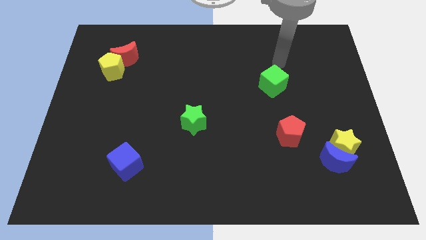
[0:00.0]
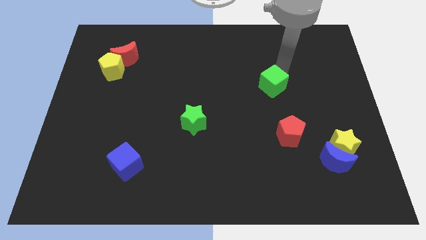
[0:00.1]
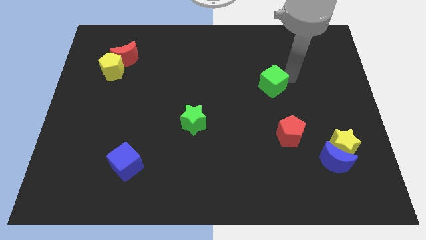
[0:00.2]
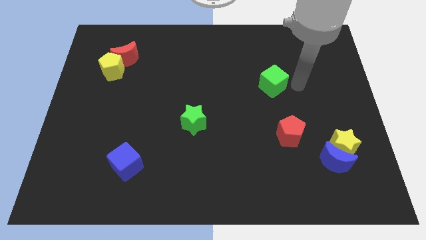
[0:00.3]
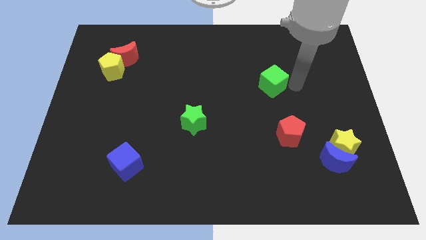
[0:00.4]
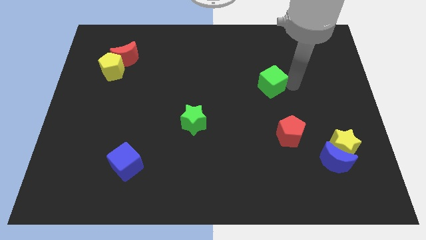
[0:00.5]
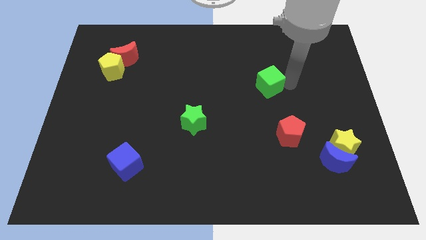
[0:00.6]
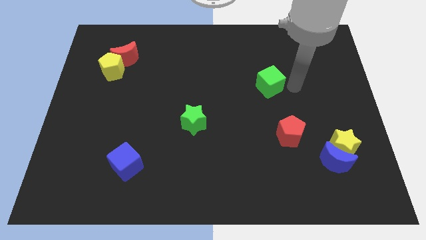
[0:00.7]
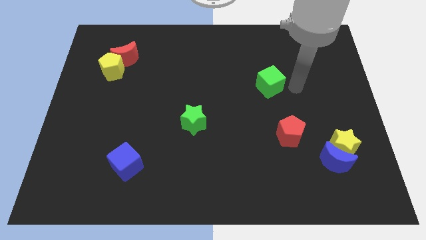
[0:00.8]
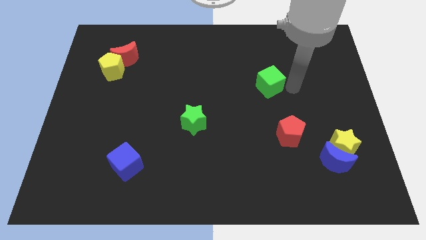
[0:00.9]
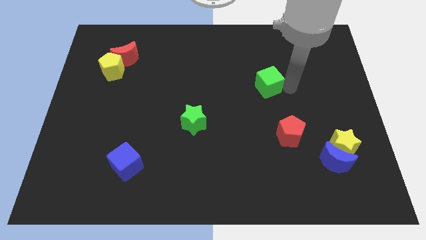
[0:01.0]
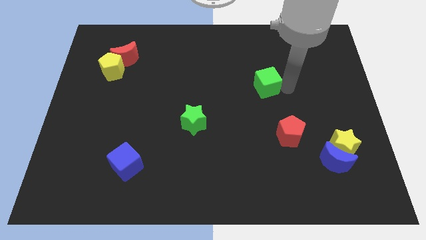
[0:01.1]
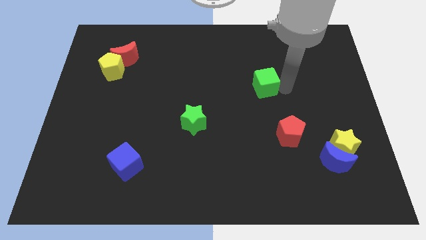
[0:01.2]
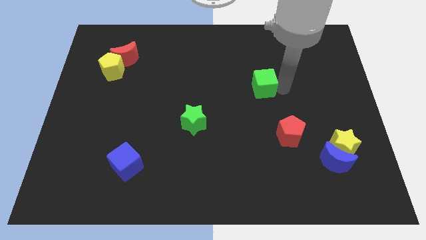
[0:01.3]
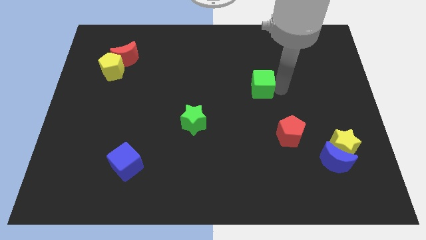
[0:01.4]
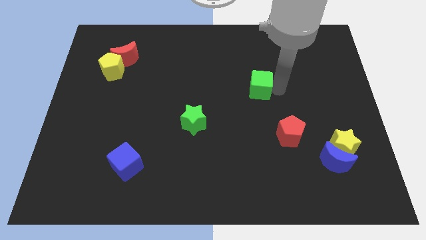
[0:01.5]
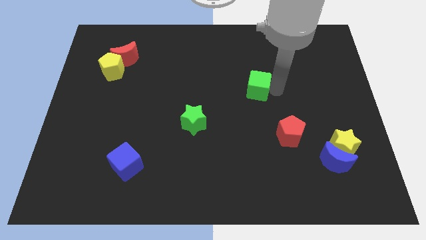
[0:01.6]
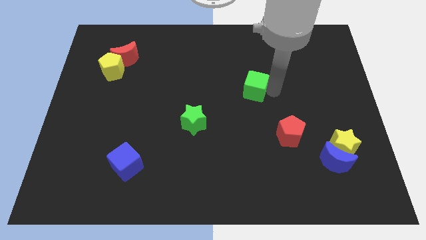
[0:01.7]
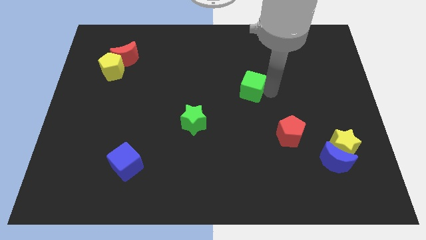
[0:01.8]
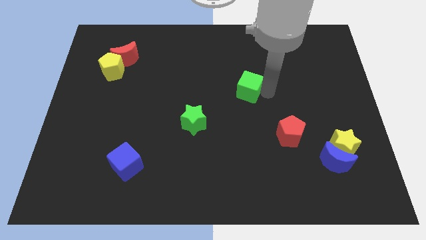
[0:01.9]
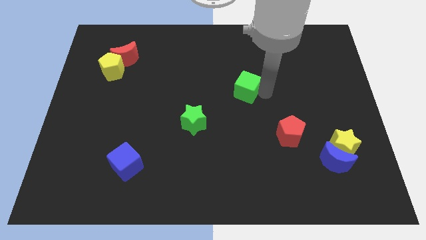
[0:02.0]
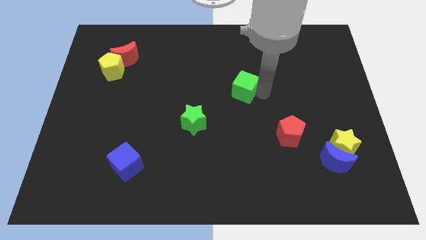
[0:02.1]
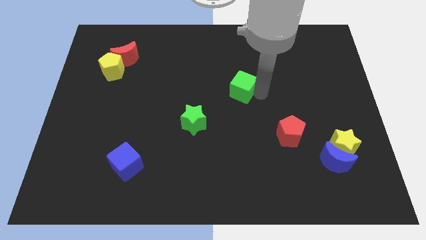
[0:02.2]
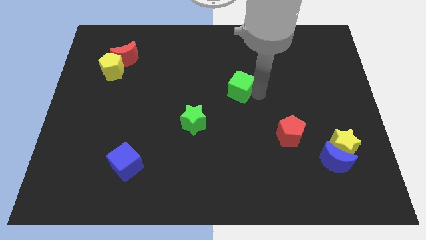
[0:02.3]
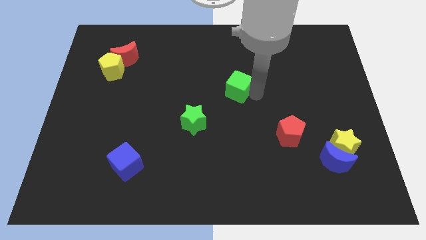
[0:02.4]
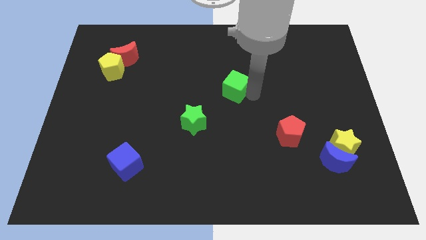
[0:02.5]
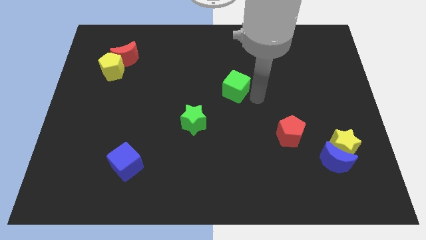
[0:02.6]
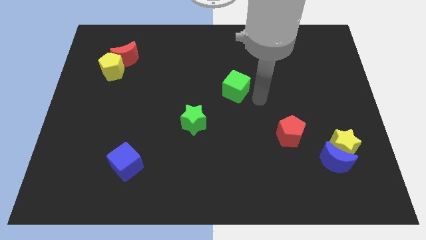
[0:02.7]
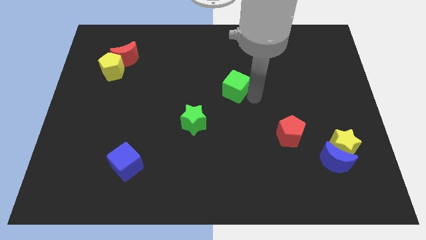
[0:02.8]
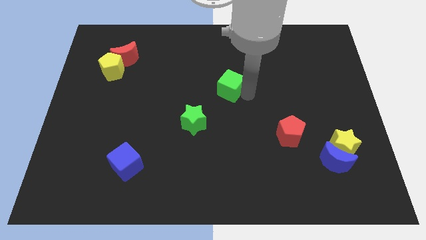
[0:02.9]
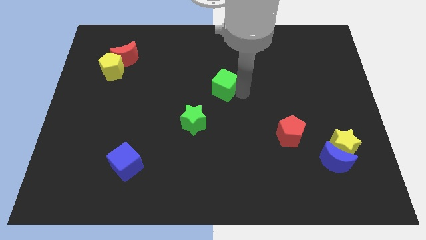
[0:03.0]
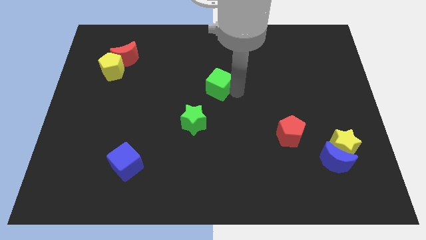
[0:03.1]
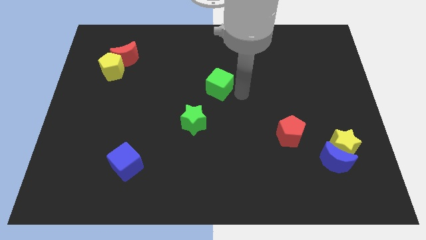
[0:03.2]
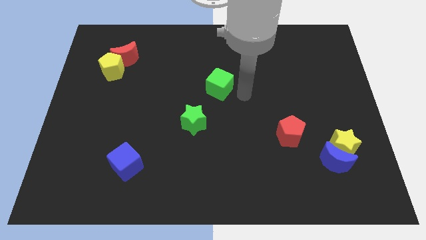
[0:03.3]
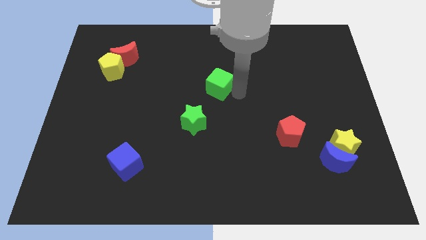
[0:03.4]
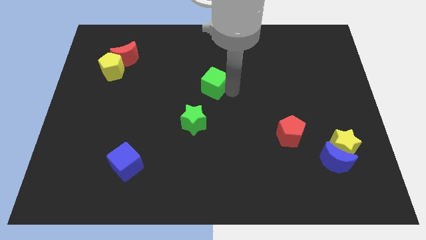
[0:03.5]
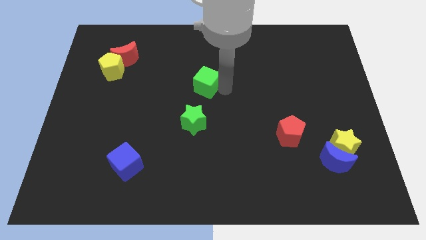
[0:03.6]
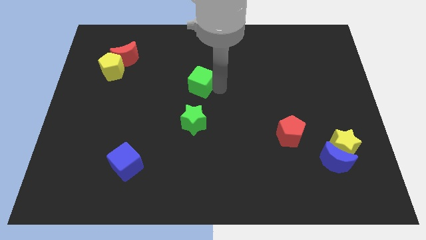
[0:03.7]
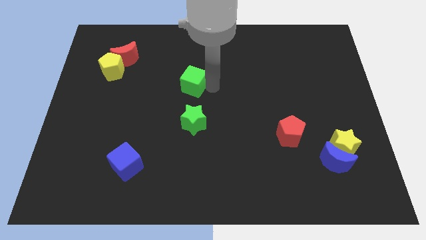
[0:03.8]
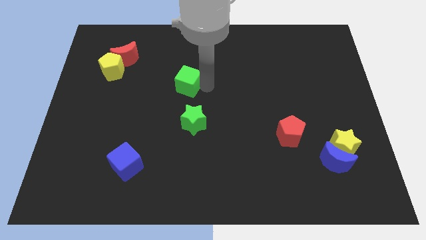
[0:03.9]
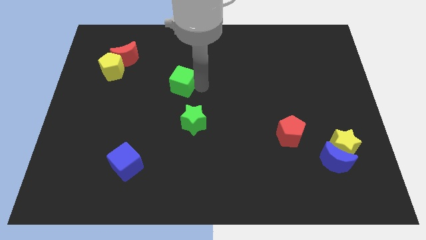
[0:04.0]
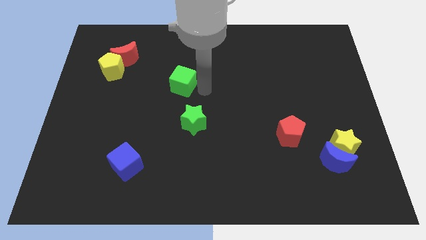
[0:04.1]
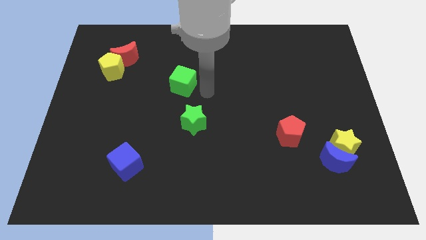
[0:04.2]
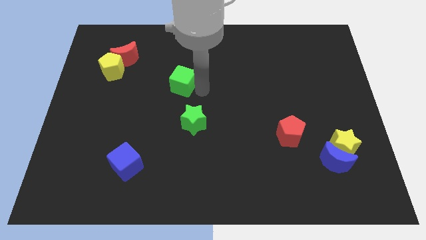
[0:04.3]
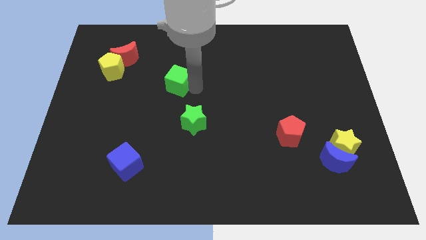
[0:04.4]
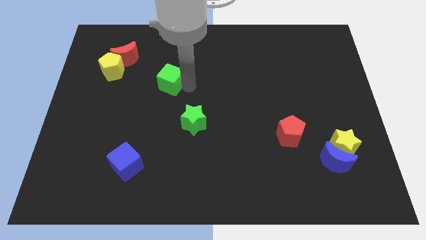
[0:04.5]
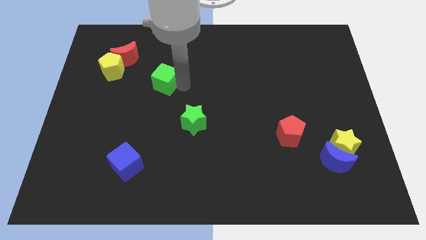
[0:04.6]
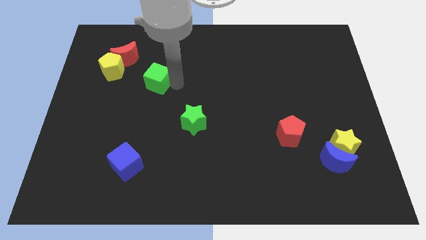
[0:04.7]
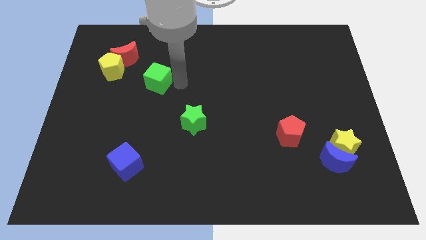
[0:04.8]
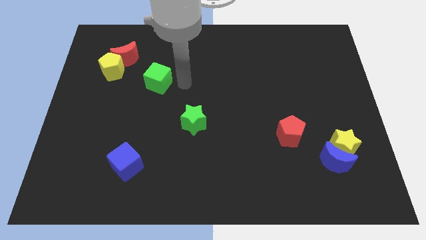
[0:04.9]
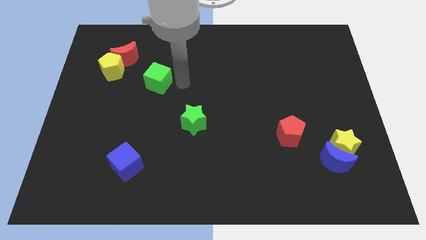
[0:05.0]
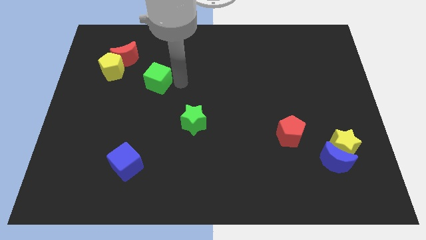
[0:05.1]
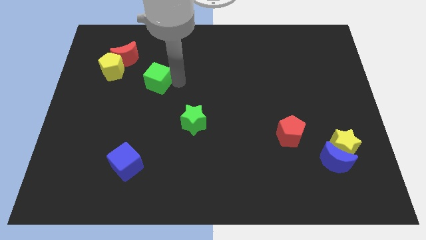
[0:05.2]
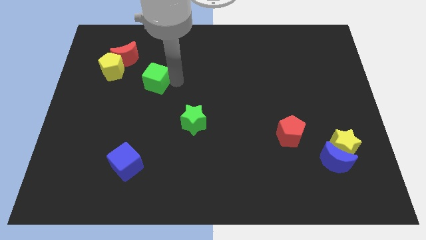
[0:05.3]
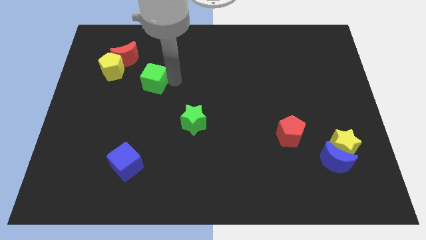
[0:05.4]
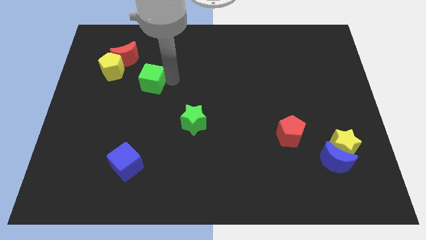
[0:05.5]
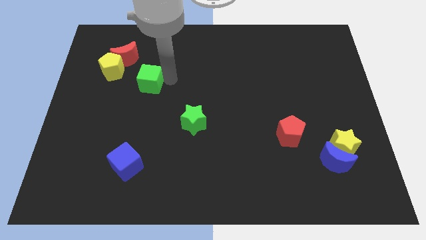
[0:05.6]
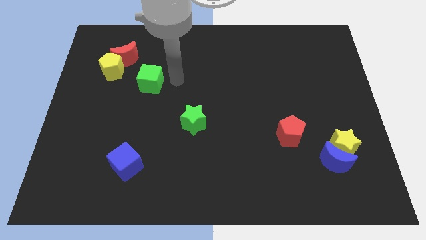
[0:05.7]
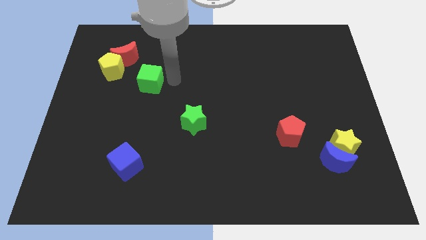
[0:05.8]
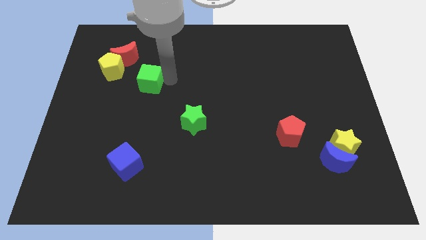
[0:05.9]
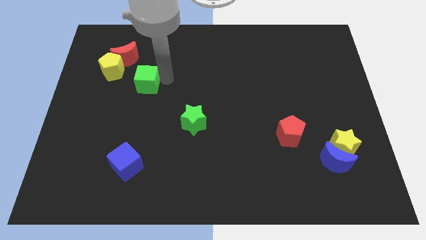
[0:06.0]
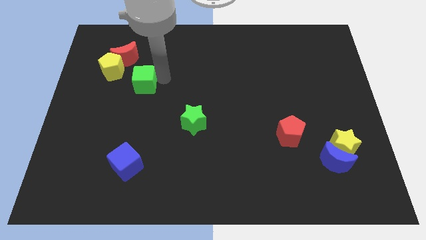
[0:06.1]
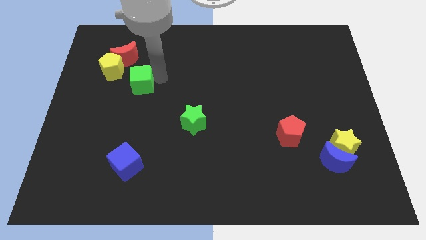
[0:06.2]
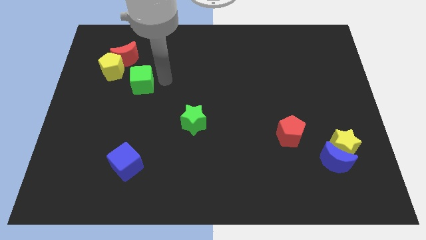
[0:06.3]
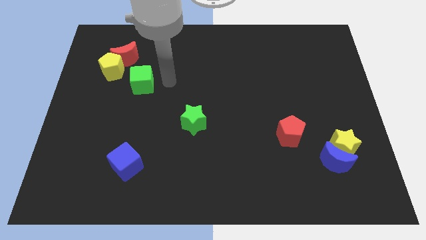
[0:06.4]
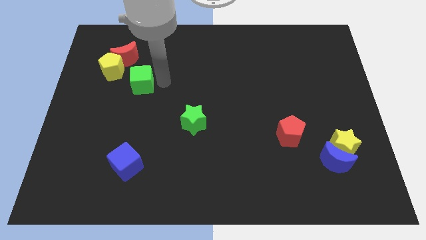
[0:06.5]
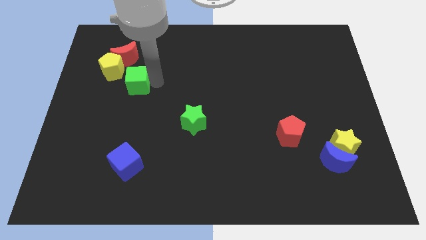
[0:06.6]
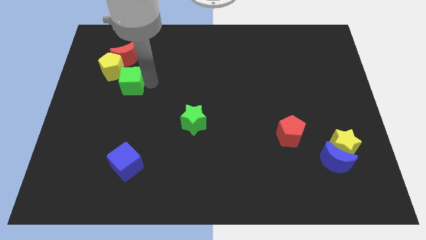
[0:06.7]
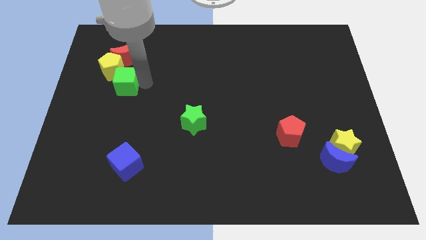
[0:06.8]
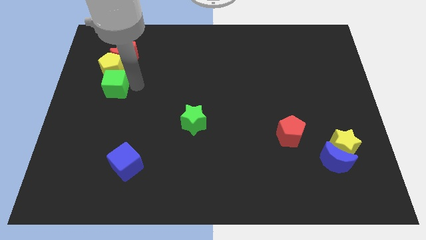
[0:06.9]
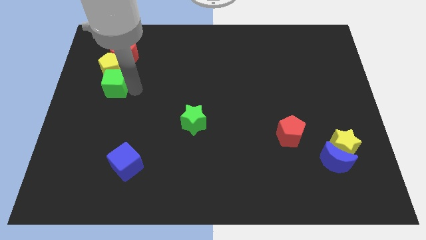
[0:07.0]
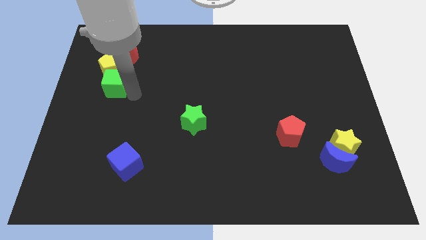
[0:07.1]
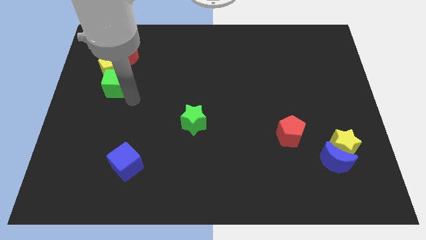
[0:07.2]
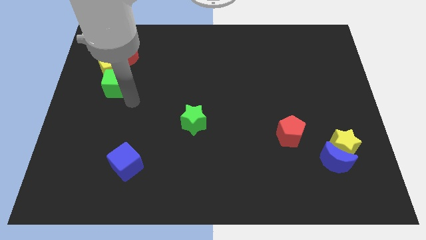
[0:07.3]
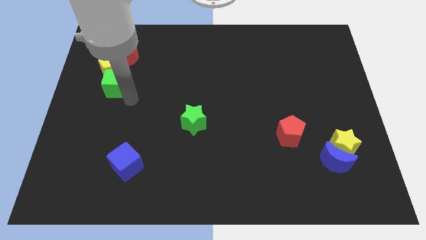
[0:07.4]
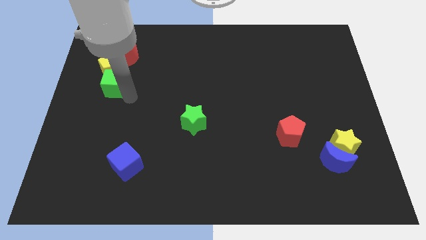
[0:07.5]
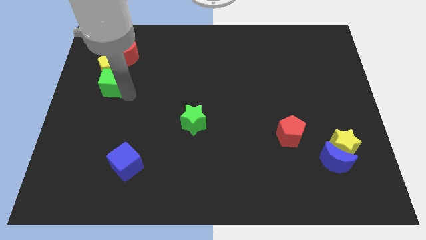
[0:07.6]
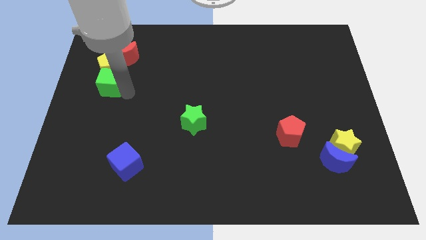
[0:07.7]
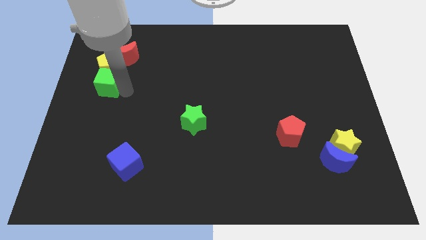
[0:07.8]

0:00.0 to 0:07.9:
push the green cube diagonally down and to the left of the red moon
